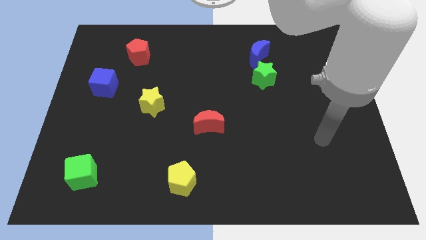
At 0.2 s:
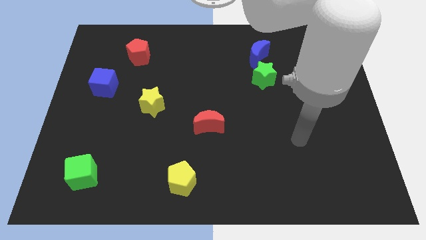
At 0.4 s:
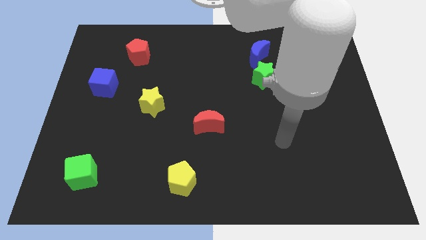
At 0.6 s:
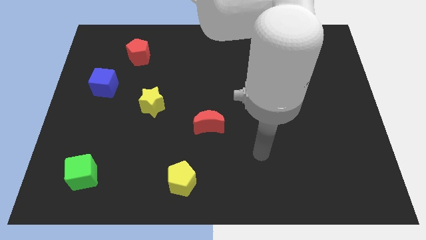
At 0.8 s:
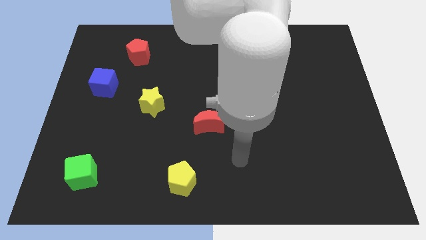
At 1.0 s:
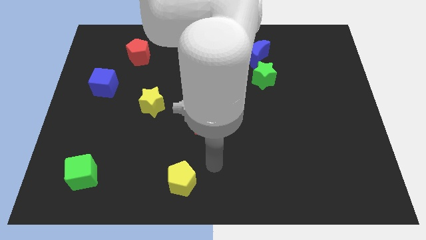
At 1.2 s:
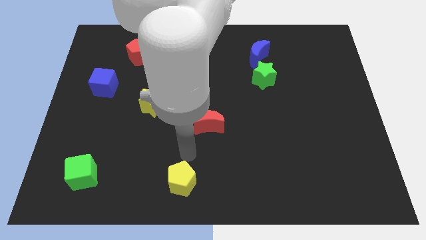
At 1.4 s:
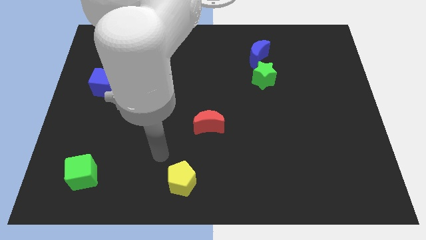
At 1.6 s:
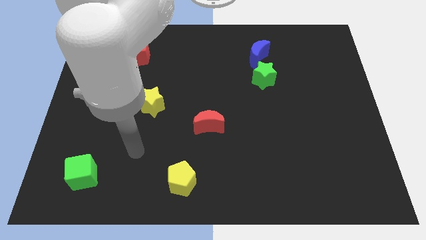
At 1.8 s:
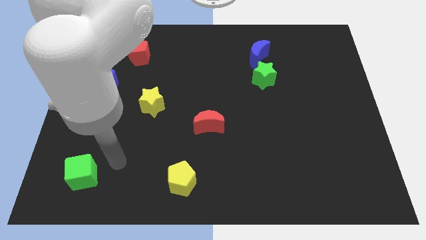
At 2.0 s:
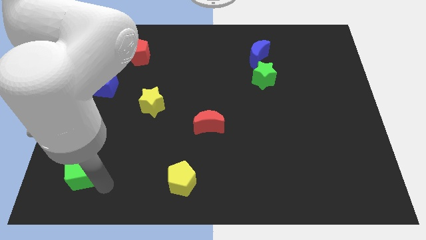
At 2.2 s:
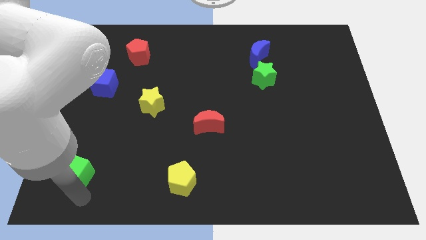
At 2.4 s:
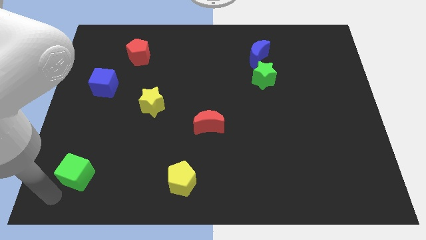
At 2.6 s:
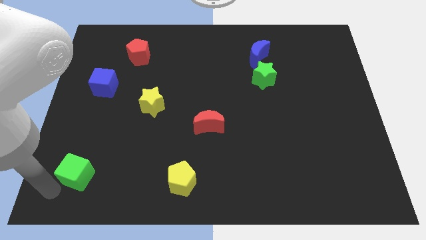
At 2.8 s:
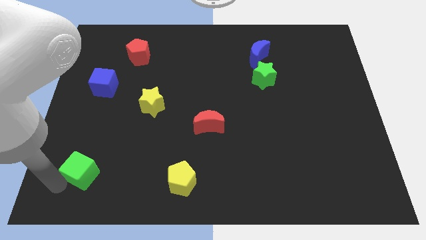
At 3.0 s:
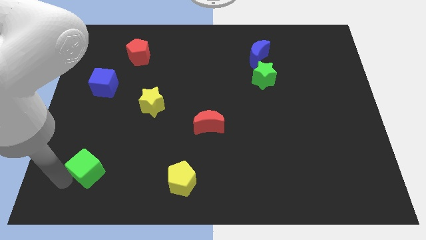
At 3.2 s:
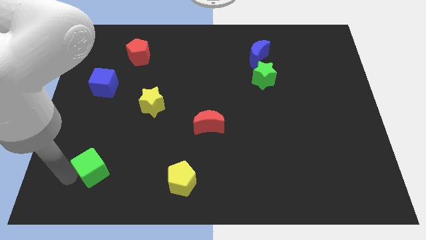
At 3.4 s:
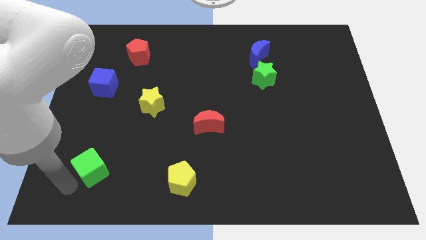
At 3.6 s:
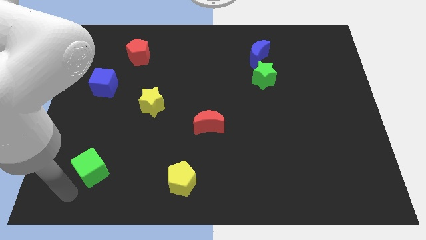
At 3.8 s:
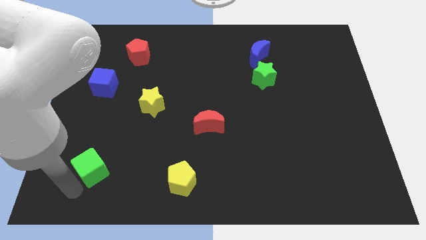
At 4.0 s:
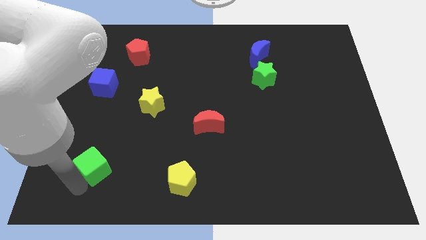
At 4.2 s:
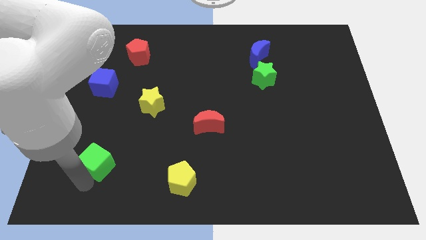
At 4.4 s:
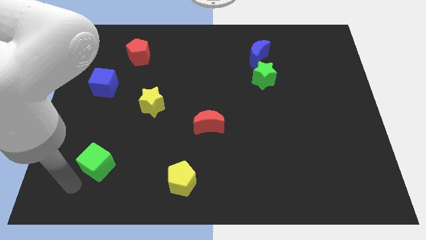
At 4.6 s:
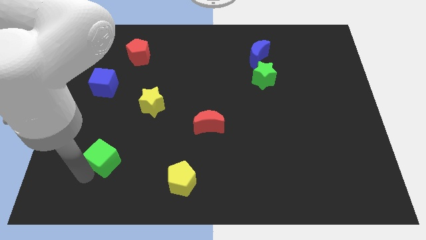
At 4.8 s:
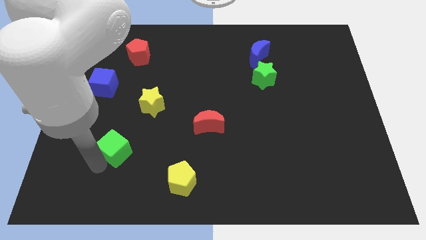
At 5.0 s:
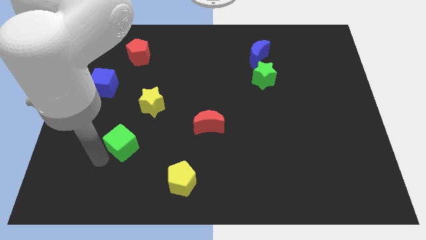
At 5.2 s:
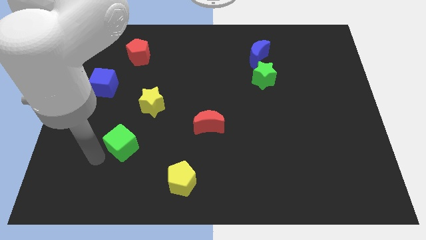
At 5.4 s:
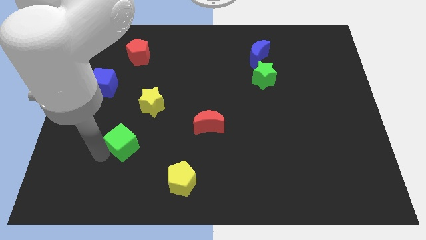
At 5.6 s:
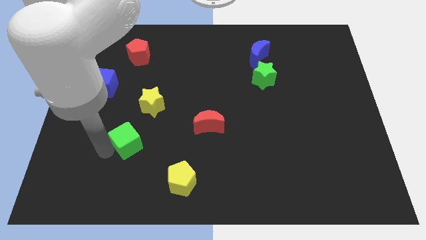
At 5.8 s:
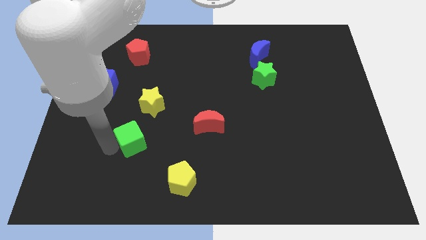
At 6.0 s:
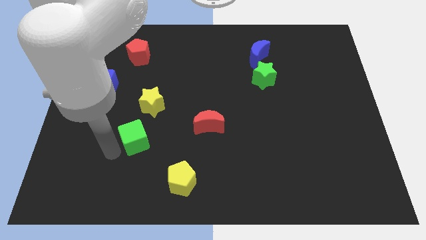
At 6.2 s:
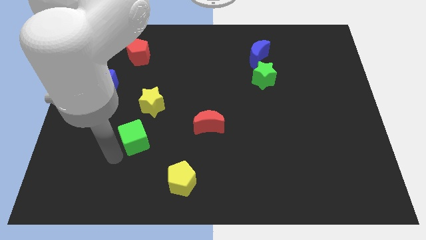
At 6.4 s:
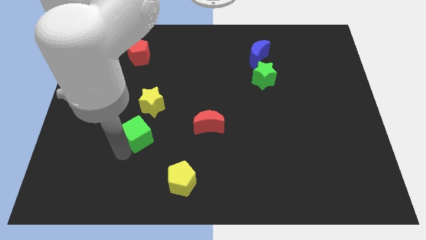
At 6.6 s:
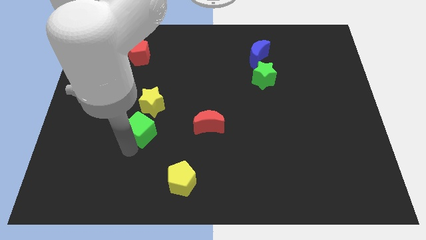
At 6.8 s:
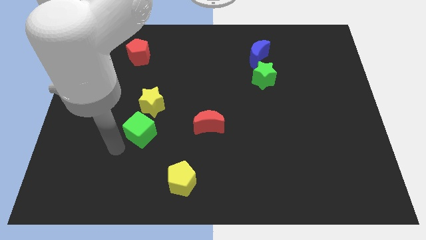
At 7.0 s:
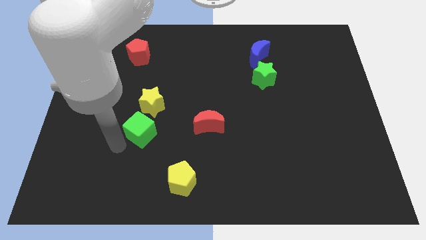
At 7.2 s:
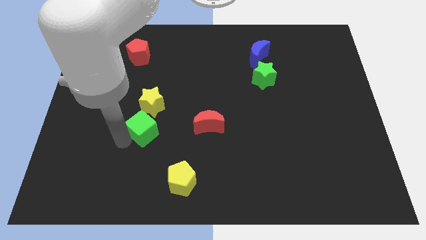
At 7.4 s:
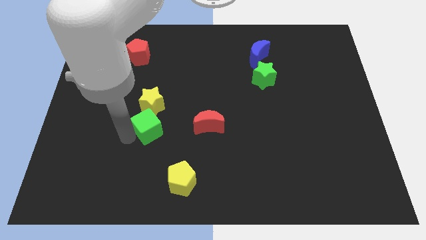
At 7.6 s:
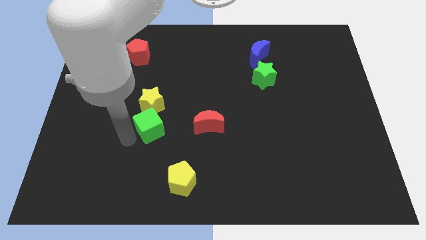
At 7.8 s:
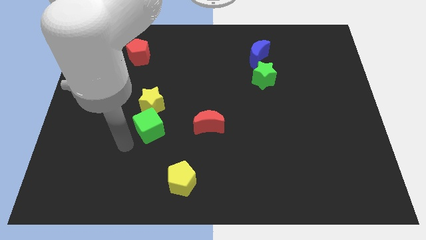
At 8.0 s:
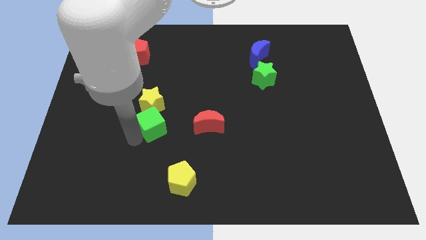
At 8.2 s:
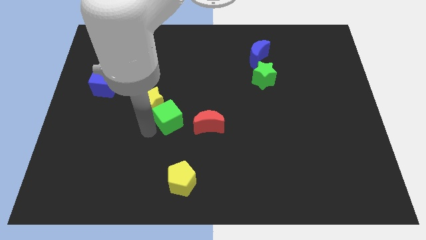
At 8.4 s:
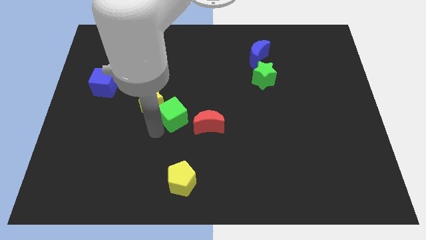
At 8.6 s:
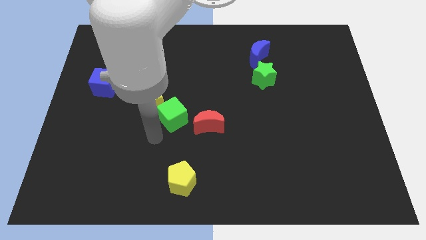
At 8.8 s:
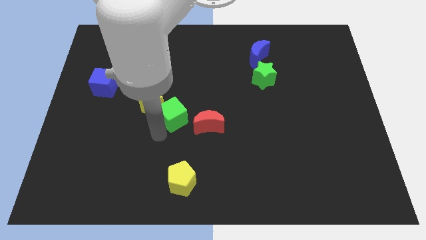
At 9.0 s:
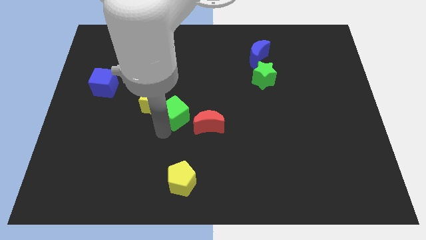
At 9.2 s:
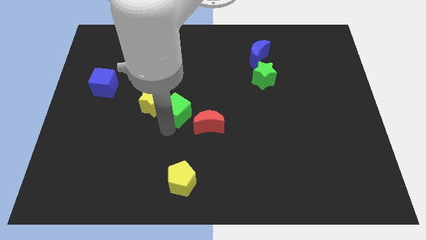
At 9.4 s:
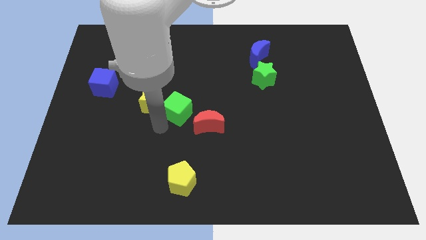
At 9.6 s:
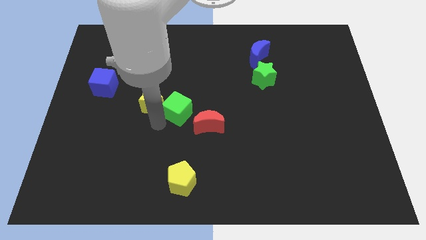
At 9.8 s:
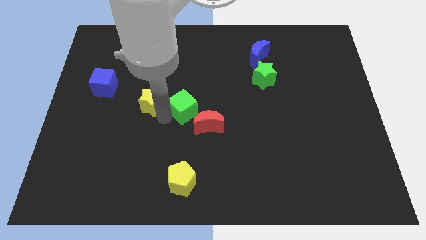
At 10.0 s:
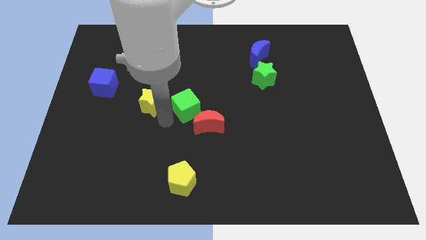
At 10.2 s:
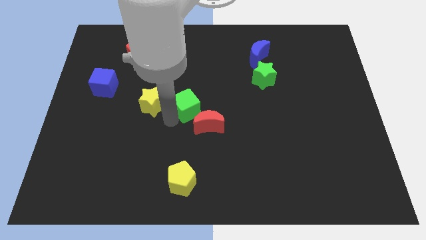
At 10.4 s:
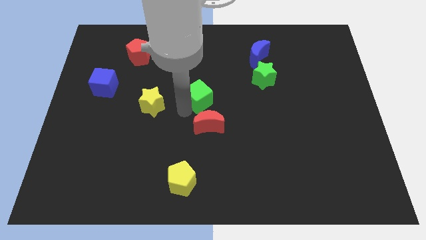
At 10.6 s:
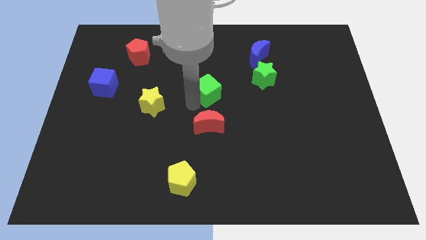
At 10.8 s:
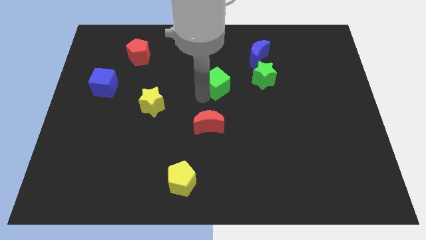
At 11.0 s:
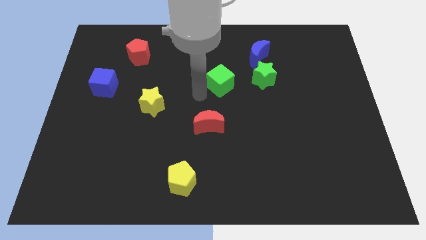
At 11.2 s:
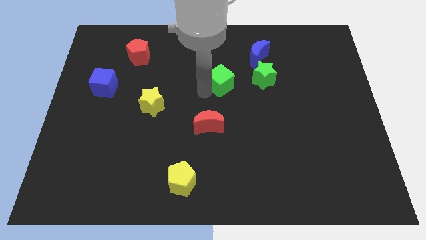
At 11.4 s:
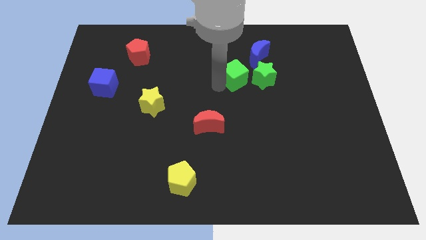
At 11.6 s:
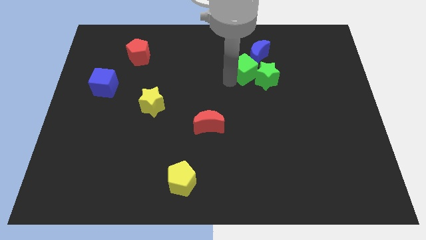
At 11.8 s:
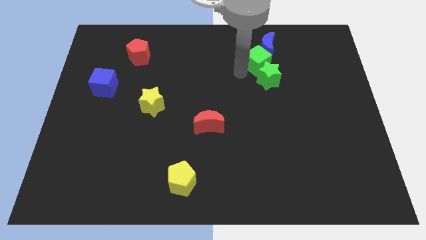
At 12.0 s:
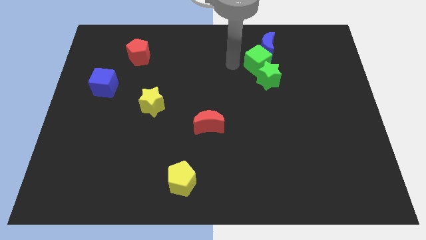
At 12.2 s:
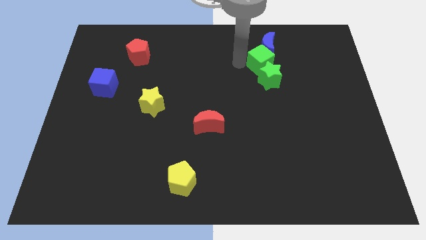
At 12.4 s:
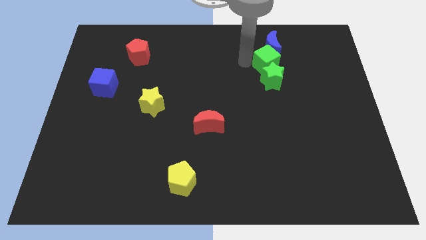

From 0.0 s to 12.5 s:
move the green cube diagonally up and to the right of the green star

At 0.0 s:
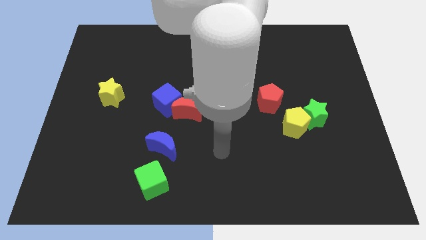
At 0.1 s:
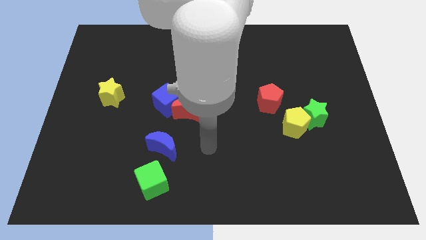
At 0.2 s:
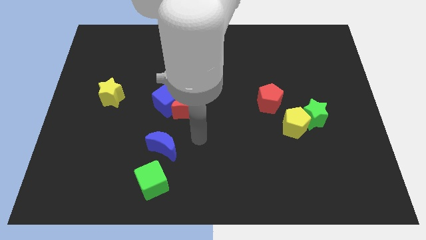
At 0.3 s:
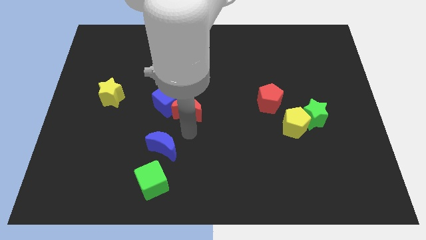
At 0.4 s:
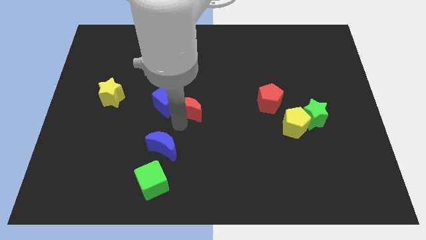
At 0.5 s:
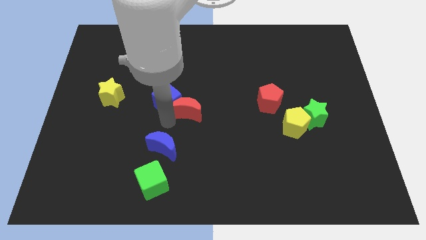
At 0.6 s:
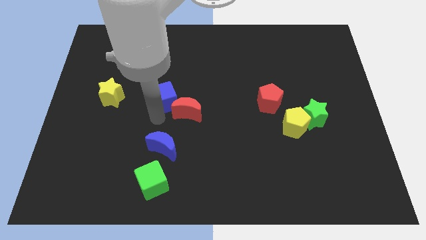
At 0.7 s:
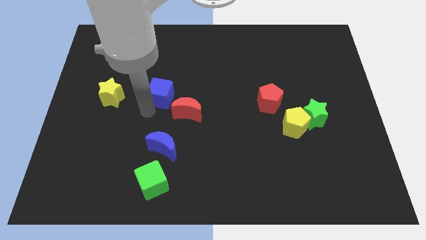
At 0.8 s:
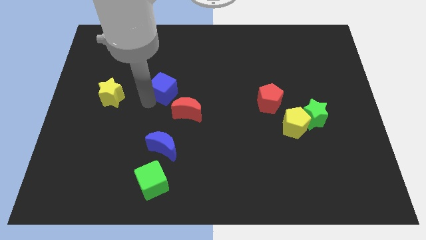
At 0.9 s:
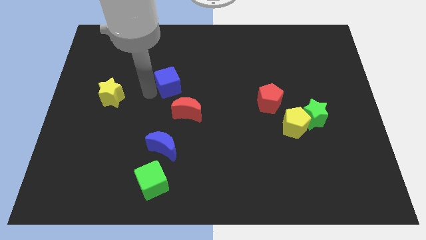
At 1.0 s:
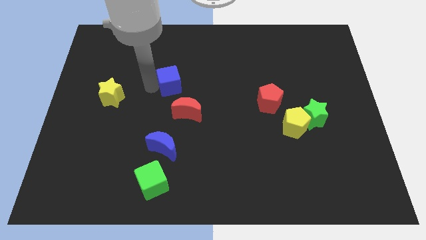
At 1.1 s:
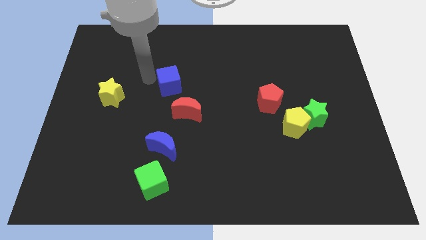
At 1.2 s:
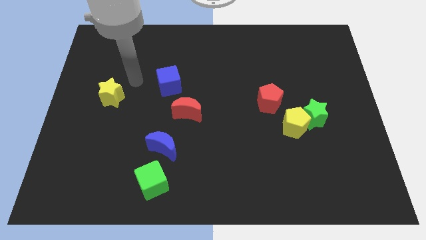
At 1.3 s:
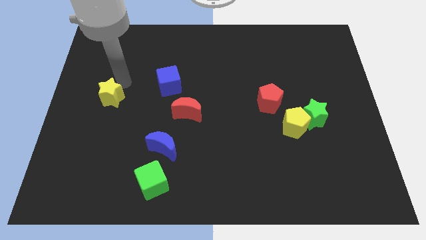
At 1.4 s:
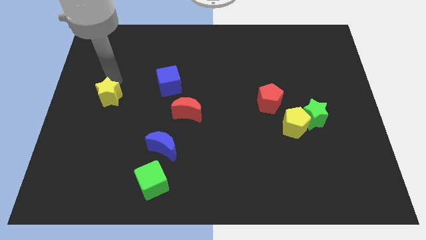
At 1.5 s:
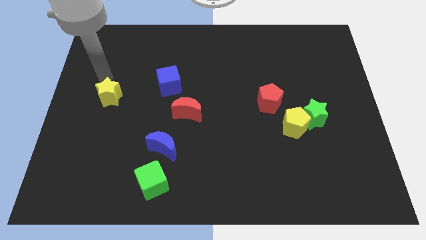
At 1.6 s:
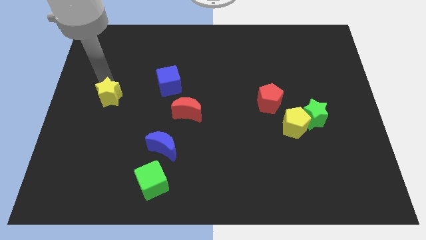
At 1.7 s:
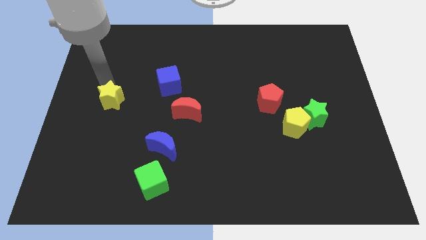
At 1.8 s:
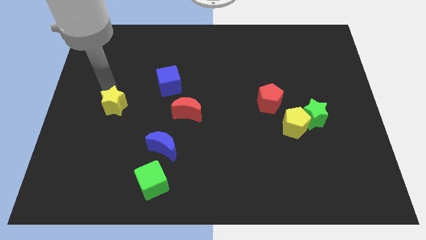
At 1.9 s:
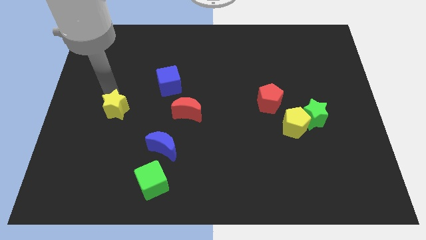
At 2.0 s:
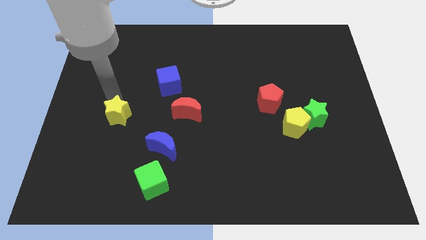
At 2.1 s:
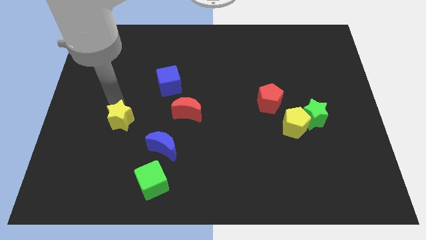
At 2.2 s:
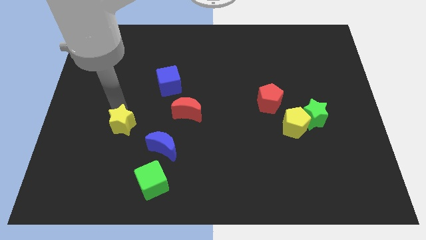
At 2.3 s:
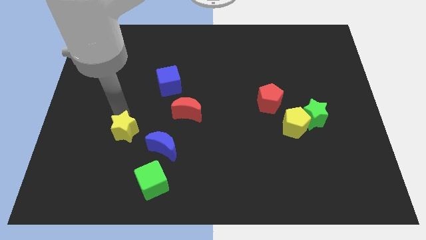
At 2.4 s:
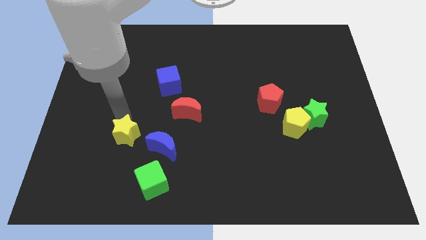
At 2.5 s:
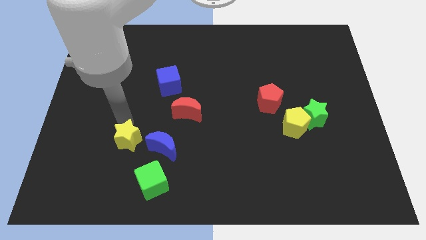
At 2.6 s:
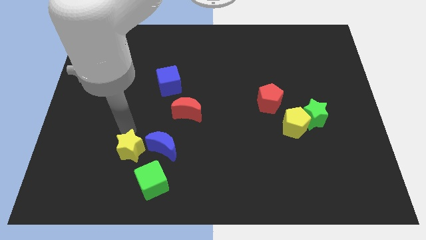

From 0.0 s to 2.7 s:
put the yellow star to the bottom left side of the blue moon
